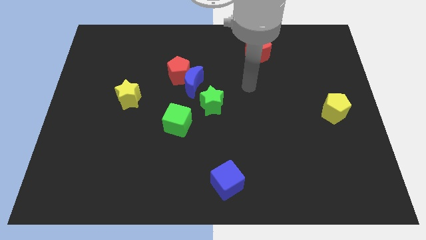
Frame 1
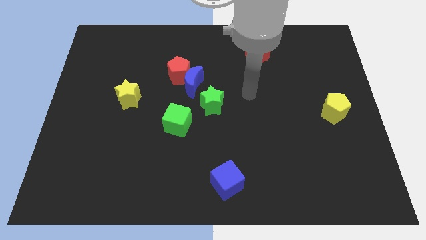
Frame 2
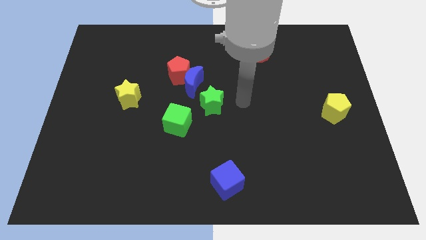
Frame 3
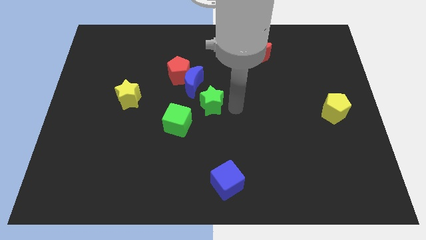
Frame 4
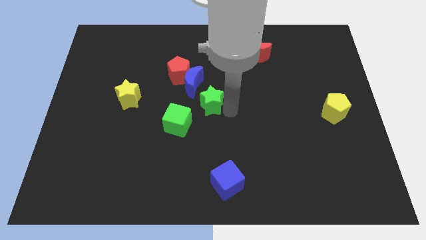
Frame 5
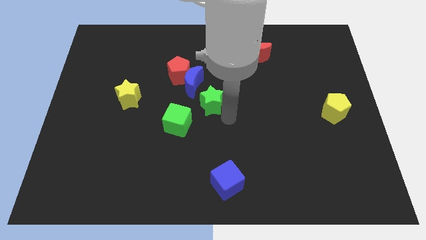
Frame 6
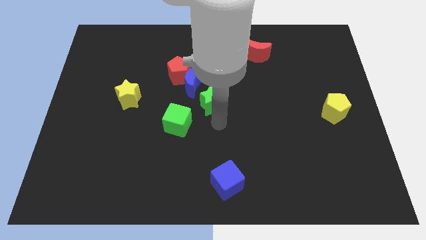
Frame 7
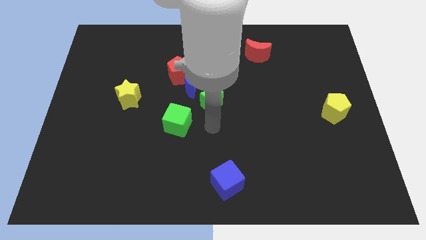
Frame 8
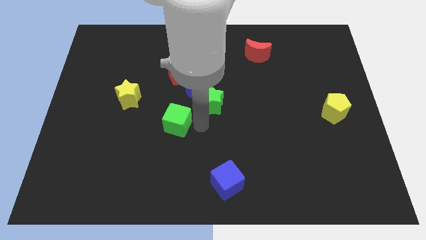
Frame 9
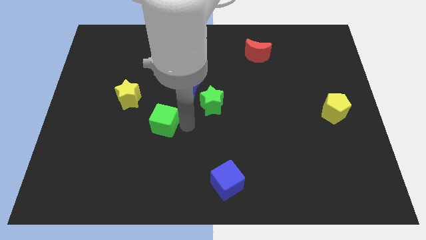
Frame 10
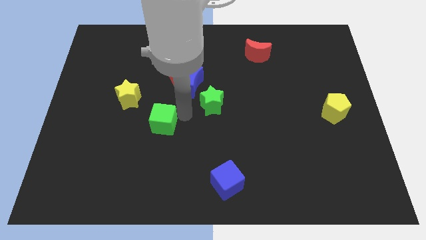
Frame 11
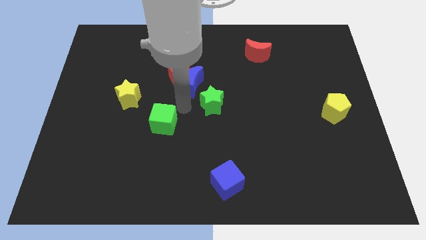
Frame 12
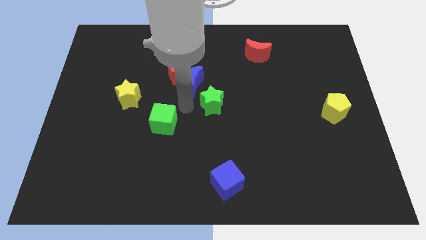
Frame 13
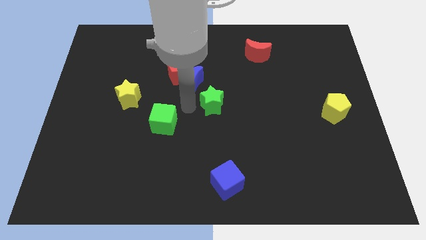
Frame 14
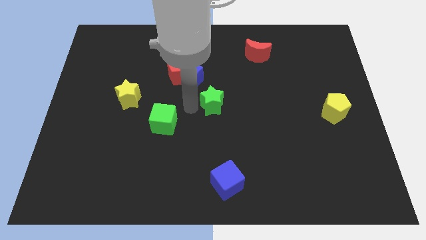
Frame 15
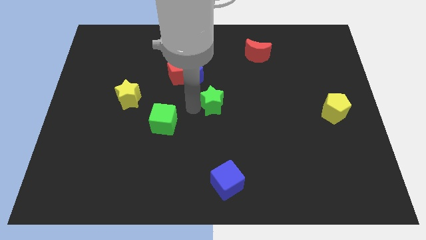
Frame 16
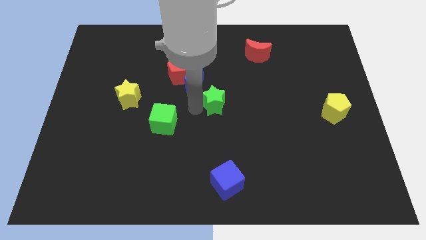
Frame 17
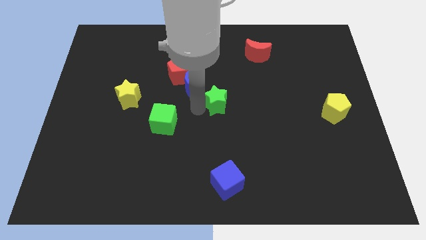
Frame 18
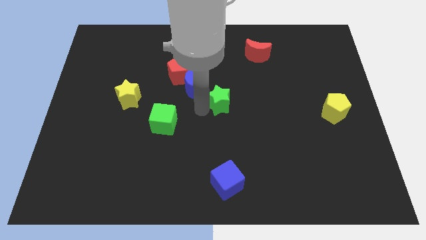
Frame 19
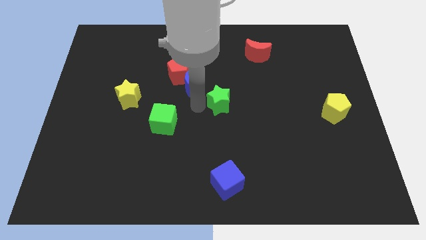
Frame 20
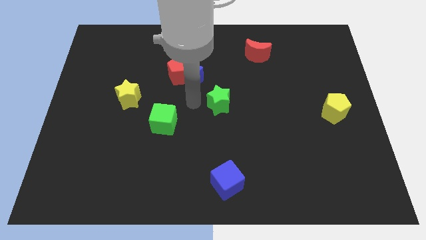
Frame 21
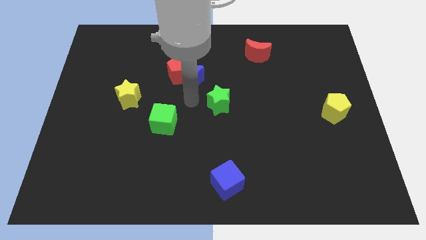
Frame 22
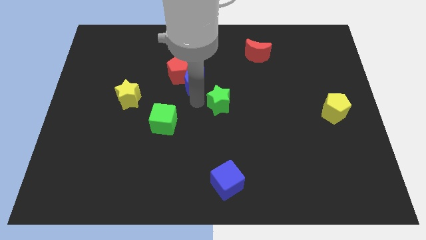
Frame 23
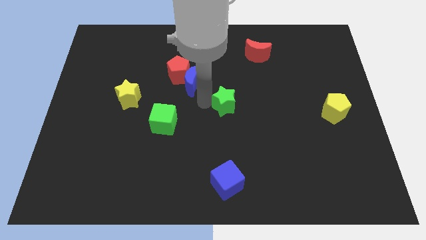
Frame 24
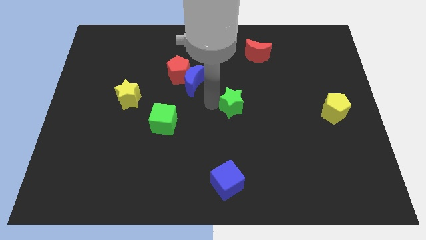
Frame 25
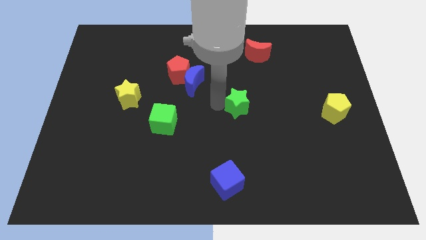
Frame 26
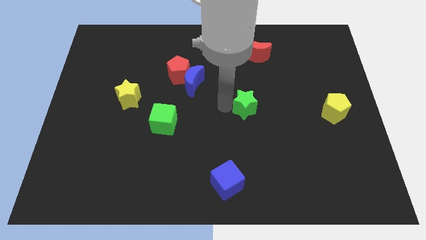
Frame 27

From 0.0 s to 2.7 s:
move the green star somewhat to the right

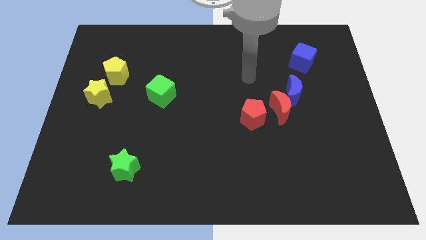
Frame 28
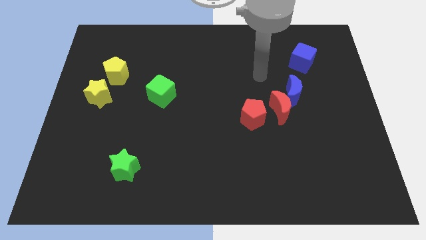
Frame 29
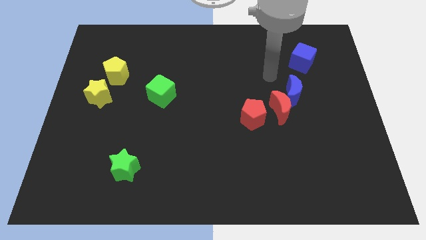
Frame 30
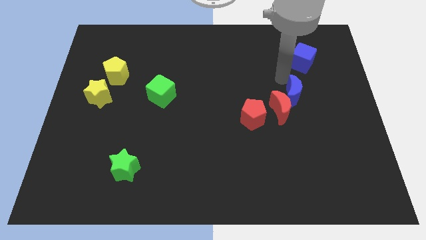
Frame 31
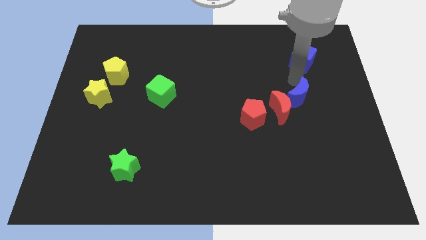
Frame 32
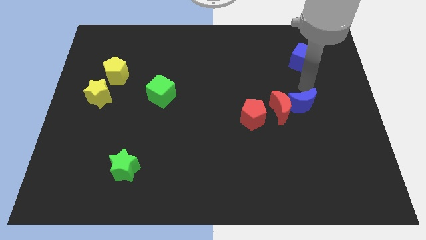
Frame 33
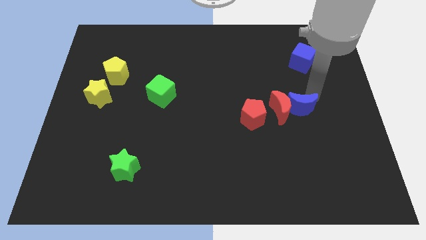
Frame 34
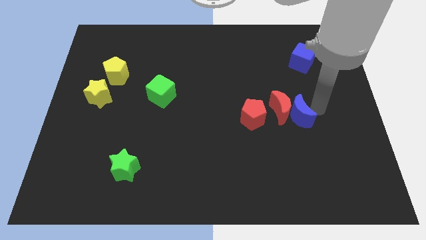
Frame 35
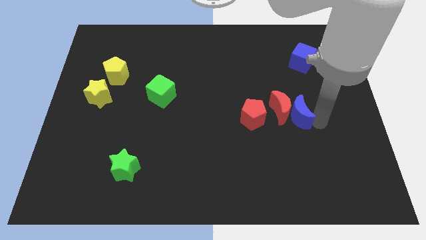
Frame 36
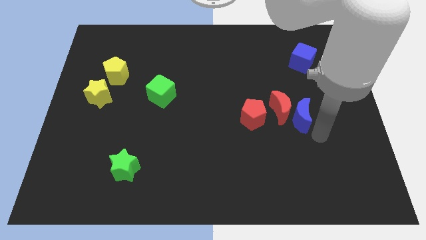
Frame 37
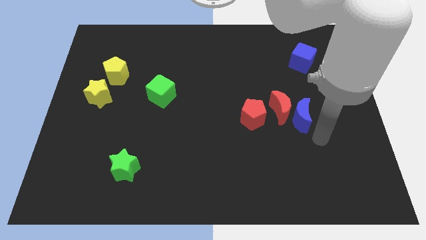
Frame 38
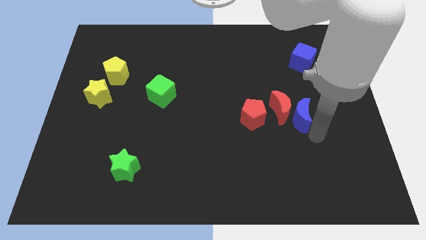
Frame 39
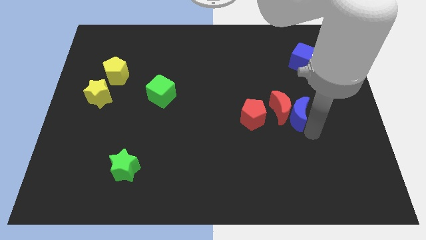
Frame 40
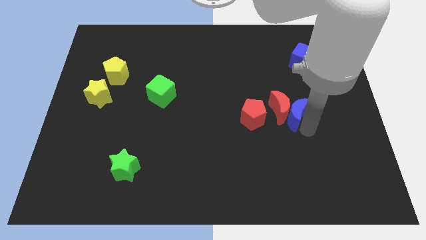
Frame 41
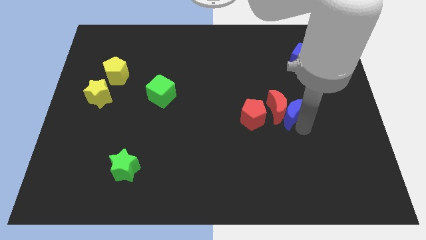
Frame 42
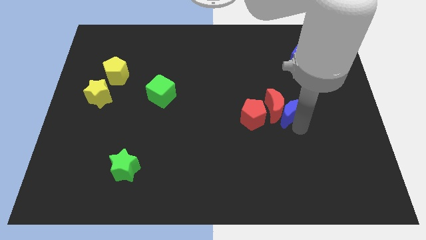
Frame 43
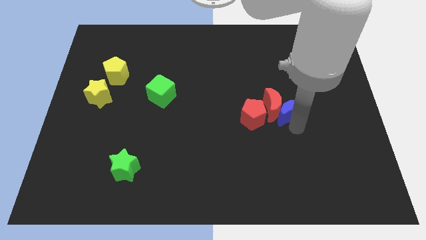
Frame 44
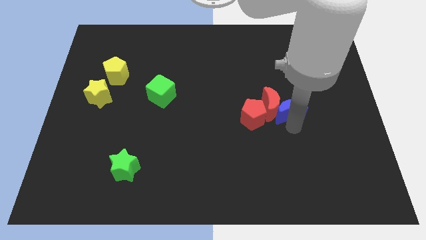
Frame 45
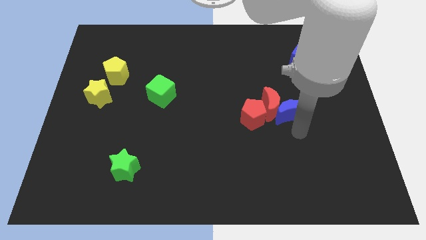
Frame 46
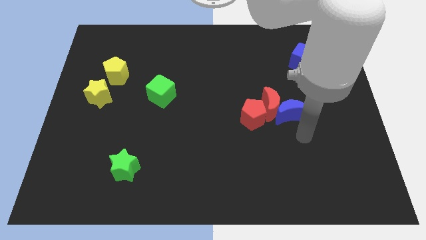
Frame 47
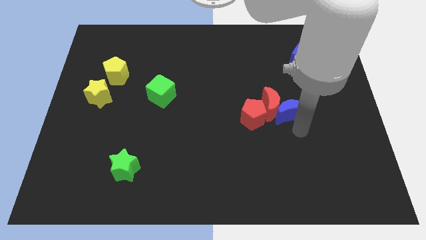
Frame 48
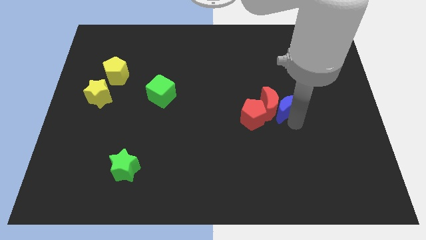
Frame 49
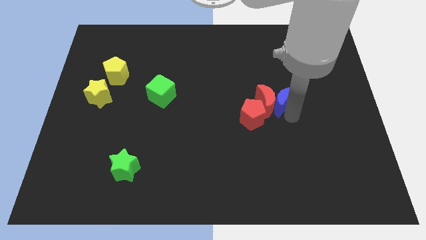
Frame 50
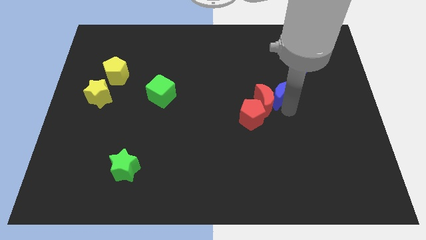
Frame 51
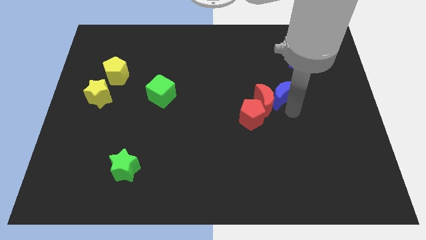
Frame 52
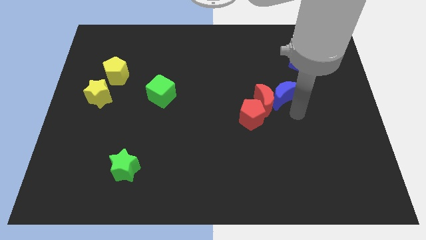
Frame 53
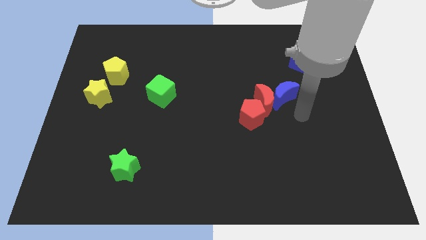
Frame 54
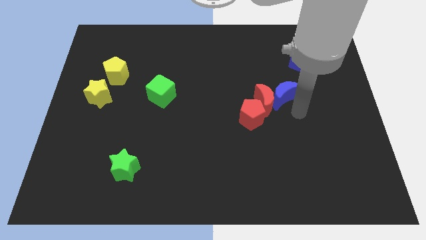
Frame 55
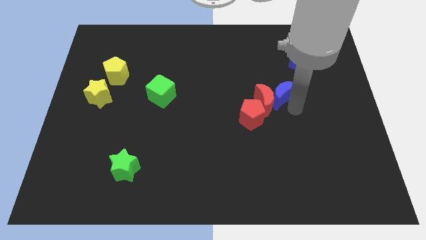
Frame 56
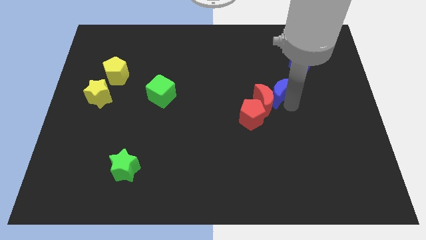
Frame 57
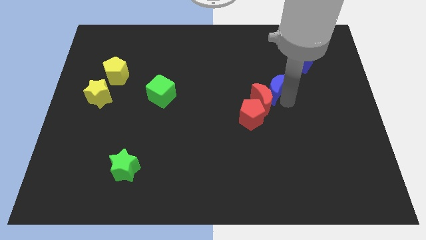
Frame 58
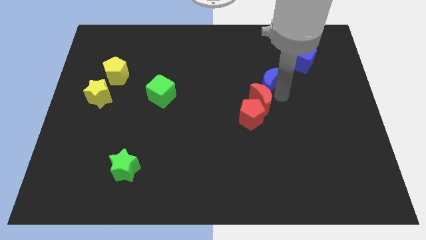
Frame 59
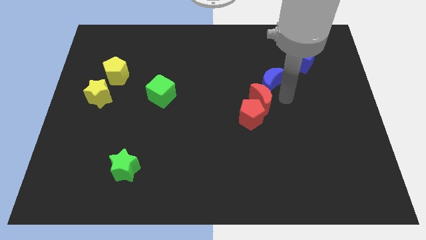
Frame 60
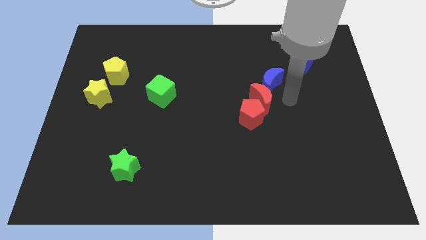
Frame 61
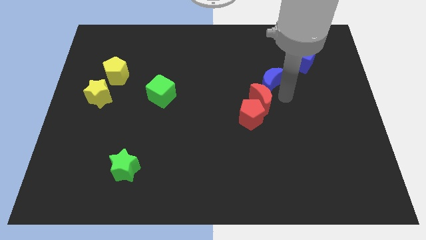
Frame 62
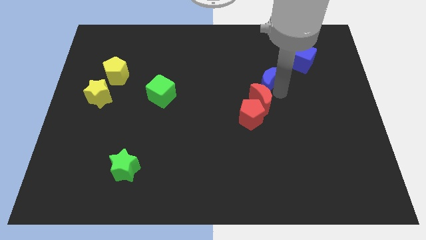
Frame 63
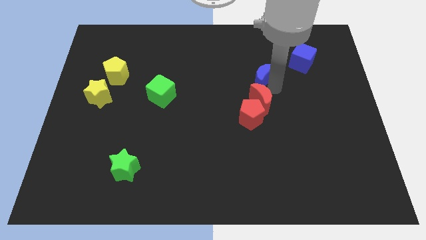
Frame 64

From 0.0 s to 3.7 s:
move the blue moon up and to the left diagonally a bit

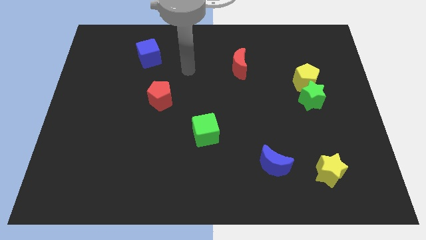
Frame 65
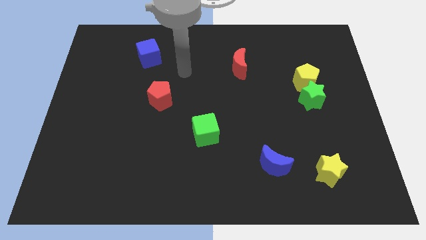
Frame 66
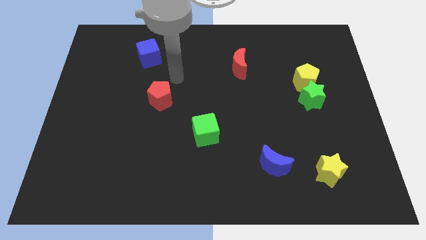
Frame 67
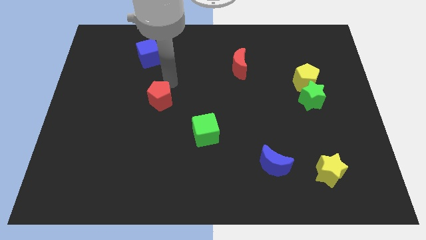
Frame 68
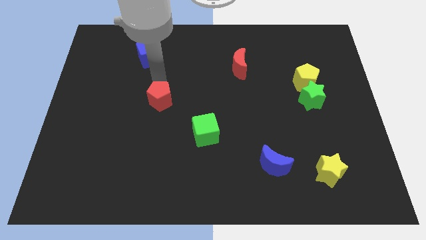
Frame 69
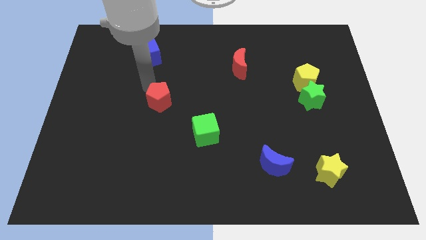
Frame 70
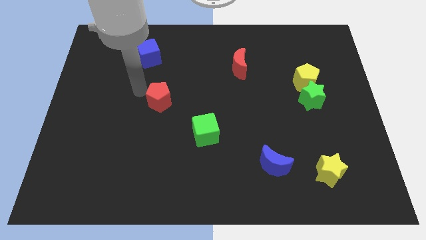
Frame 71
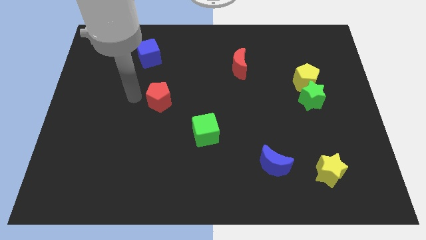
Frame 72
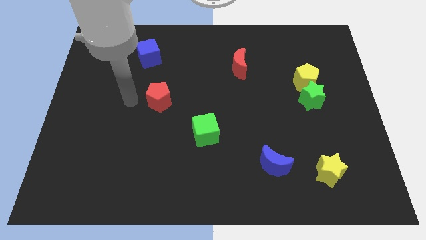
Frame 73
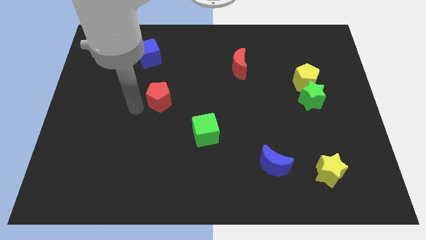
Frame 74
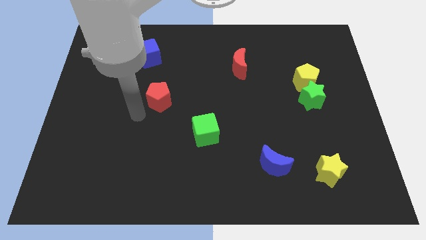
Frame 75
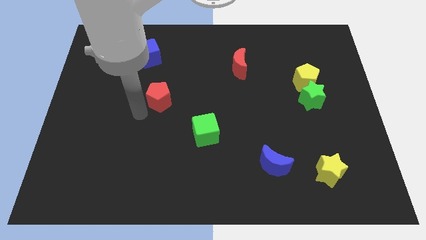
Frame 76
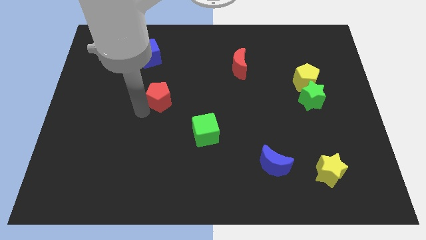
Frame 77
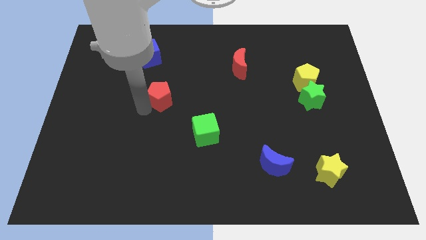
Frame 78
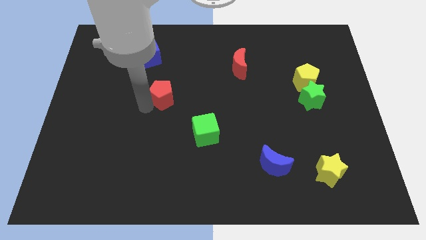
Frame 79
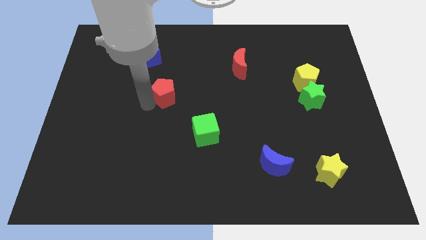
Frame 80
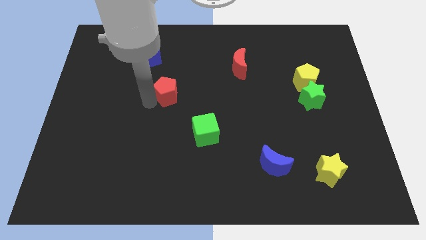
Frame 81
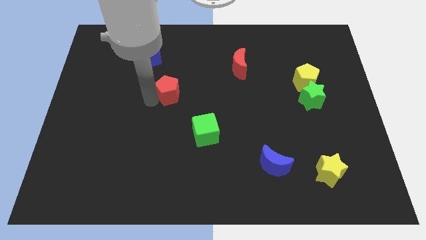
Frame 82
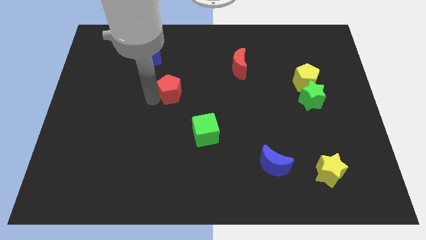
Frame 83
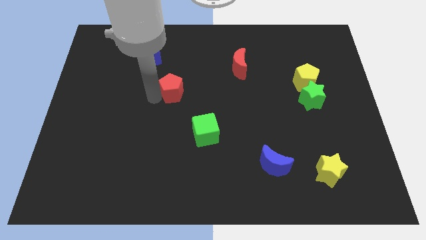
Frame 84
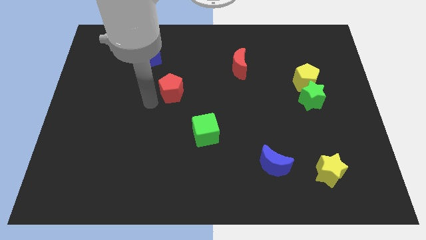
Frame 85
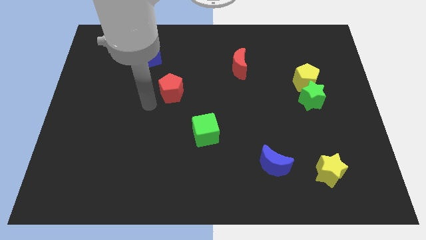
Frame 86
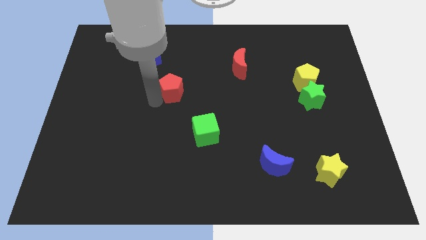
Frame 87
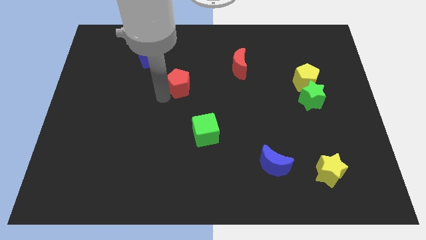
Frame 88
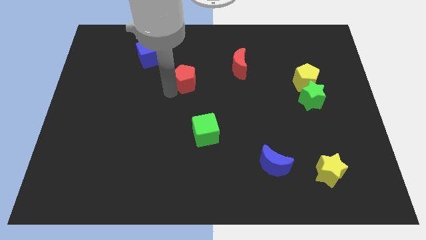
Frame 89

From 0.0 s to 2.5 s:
slide the red pentagon diagonally upwards and right a bit
